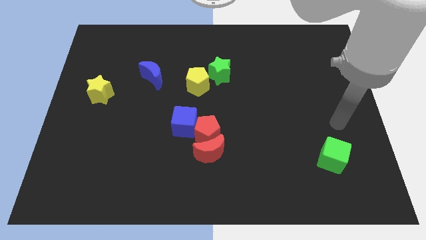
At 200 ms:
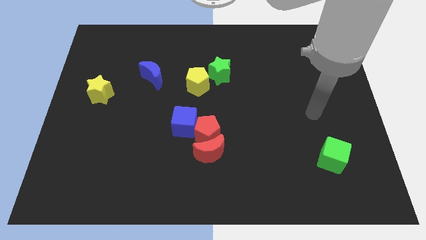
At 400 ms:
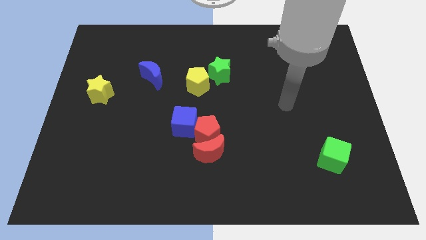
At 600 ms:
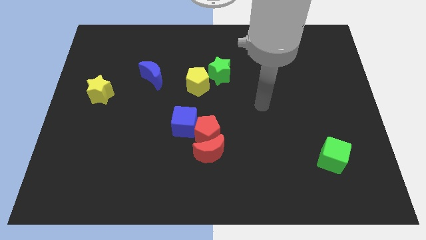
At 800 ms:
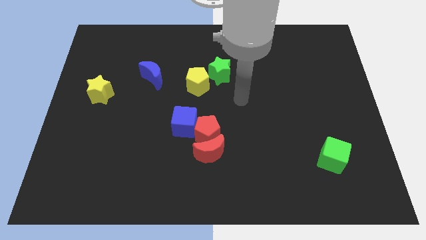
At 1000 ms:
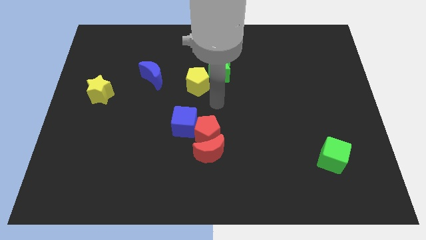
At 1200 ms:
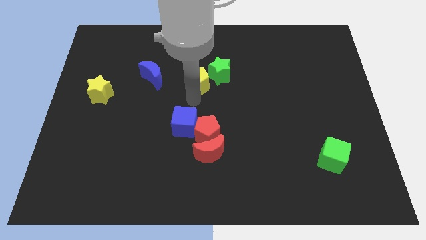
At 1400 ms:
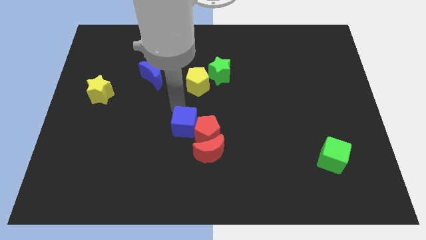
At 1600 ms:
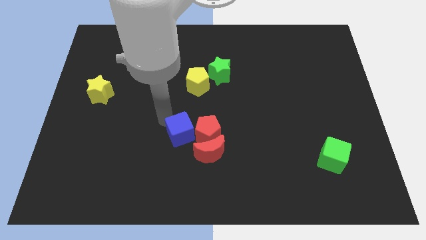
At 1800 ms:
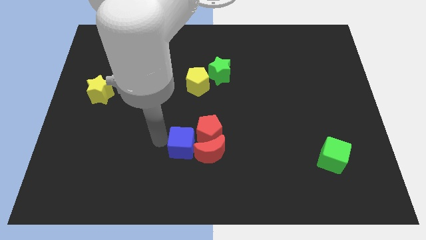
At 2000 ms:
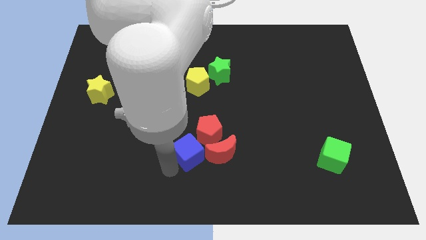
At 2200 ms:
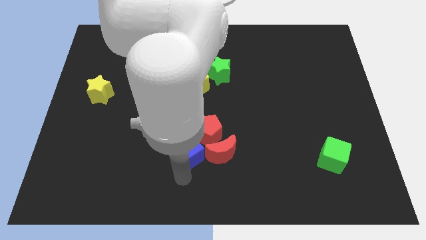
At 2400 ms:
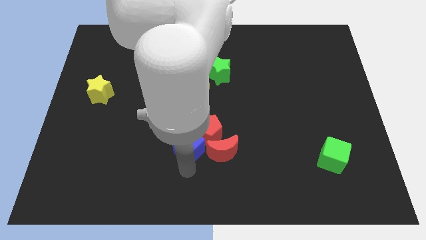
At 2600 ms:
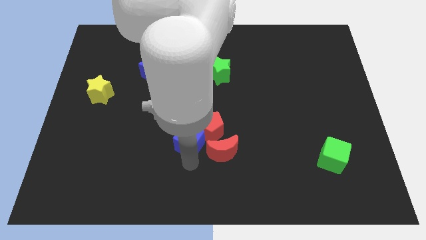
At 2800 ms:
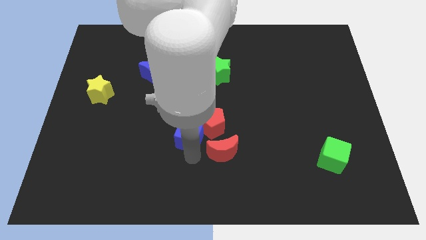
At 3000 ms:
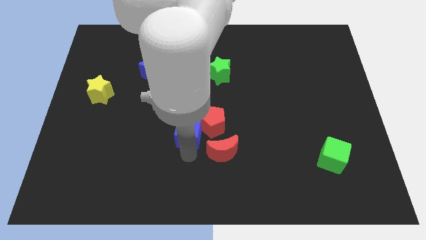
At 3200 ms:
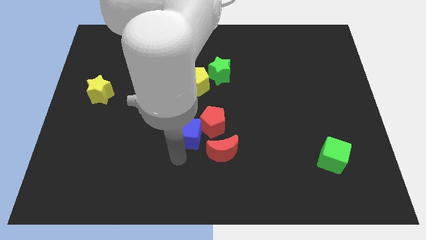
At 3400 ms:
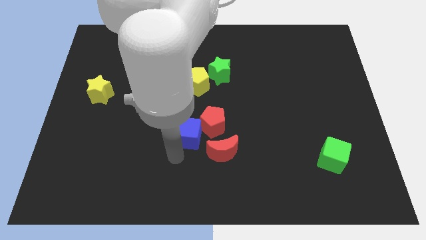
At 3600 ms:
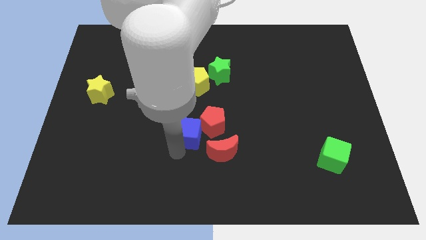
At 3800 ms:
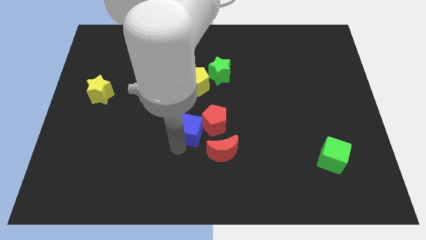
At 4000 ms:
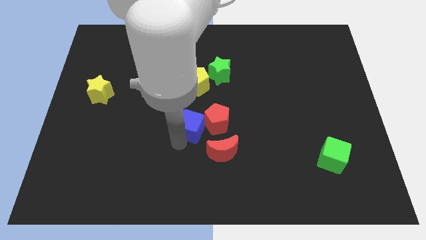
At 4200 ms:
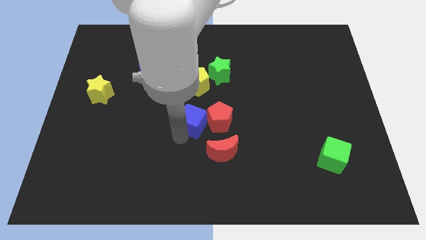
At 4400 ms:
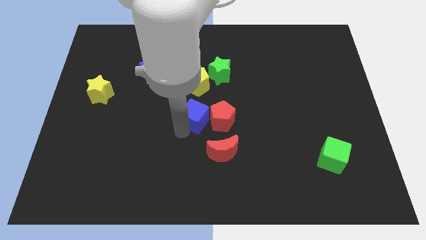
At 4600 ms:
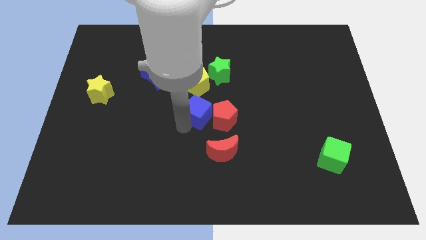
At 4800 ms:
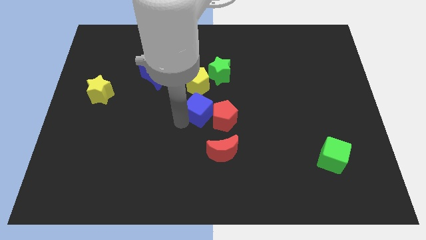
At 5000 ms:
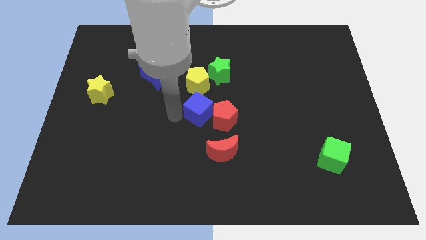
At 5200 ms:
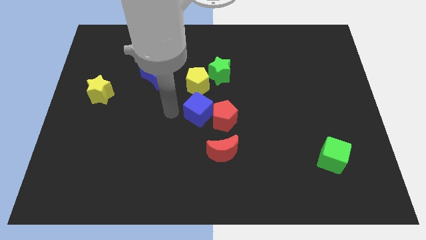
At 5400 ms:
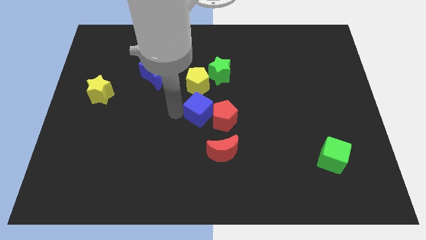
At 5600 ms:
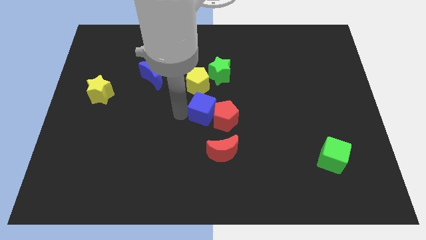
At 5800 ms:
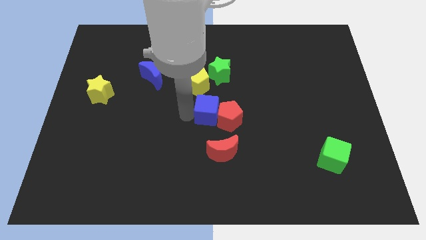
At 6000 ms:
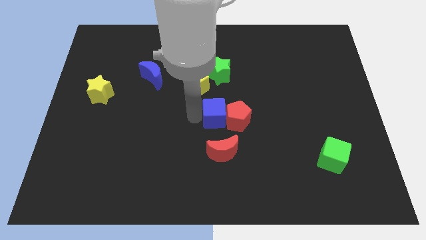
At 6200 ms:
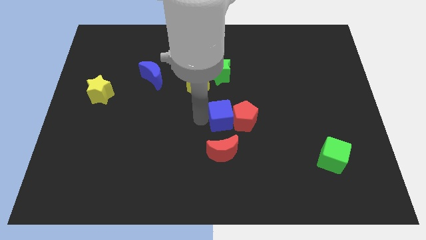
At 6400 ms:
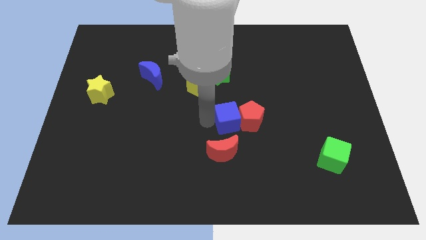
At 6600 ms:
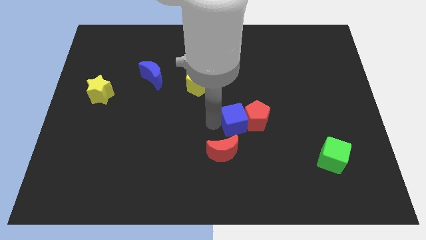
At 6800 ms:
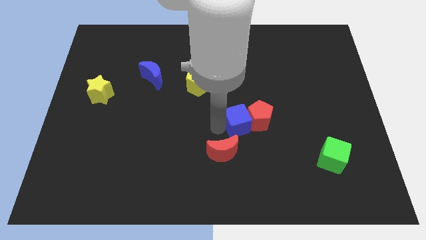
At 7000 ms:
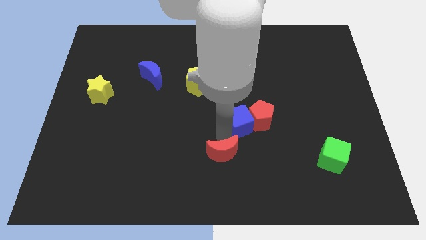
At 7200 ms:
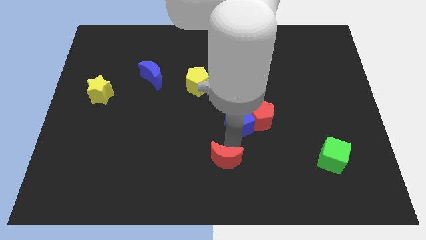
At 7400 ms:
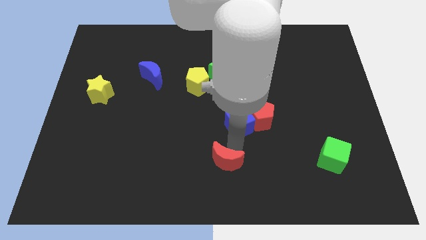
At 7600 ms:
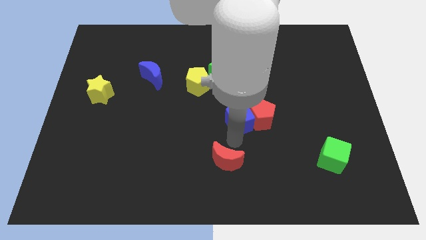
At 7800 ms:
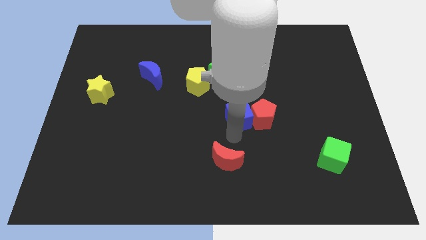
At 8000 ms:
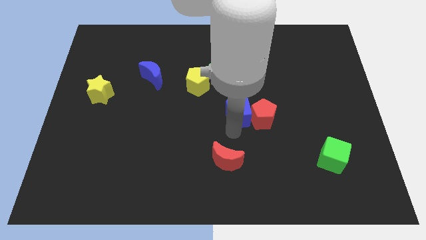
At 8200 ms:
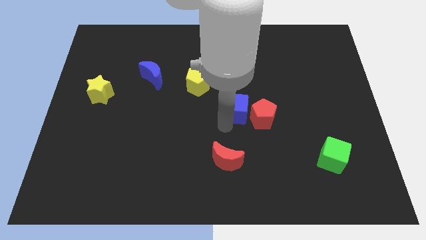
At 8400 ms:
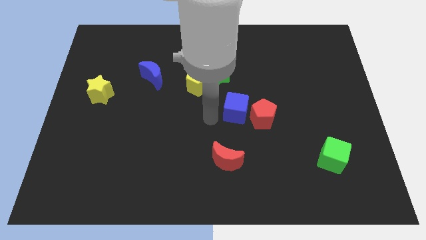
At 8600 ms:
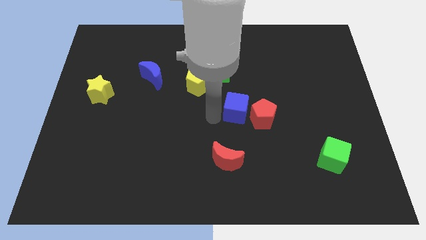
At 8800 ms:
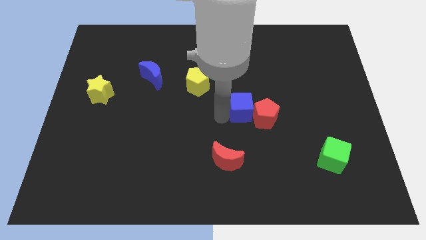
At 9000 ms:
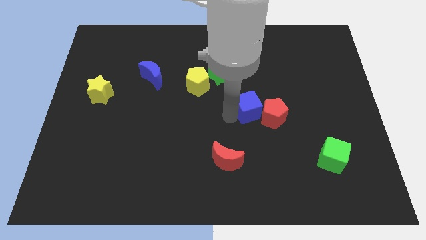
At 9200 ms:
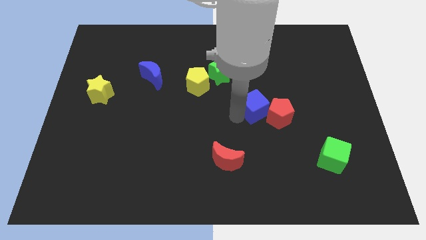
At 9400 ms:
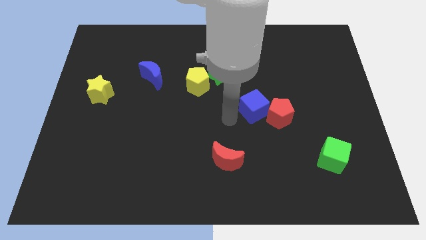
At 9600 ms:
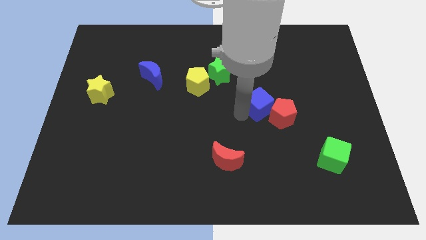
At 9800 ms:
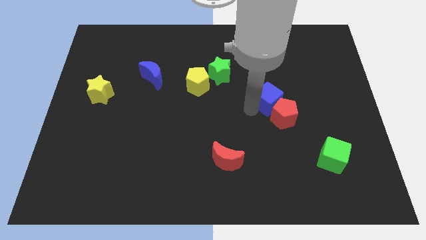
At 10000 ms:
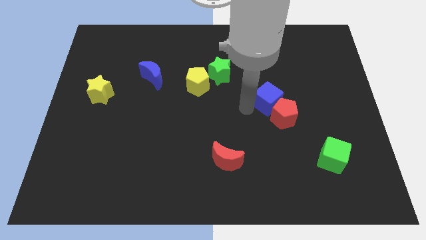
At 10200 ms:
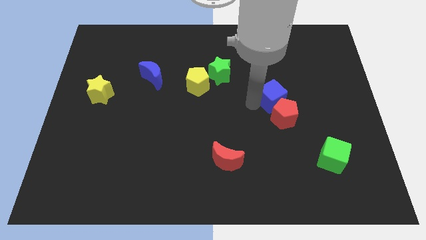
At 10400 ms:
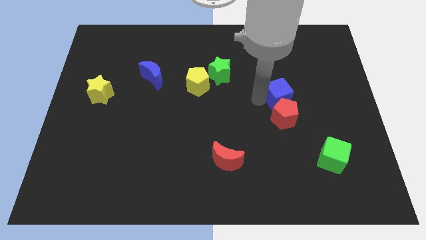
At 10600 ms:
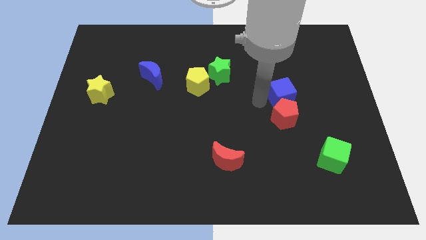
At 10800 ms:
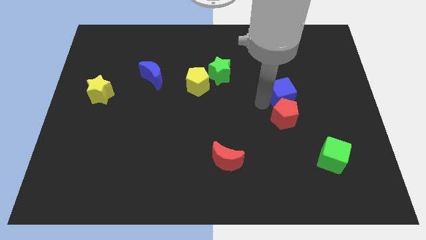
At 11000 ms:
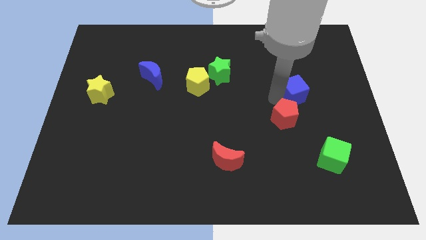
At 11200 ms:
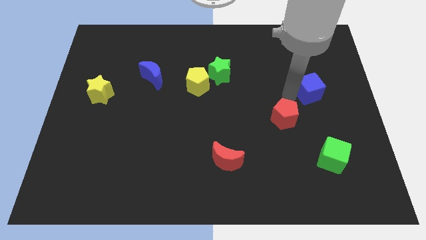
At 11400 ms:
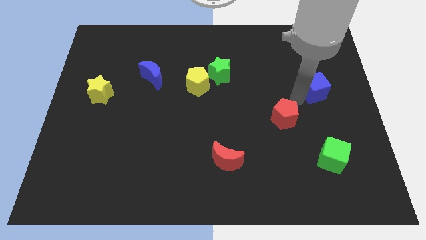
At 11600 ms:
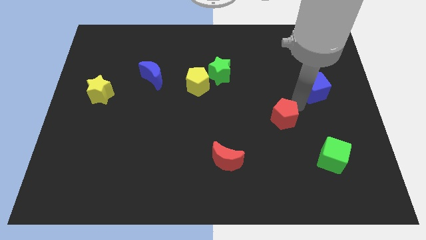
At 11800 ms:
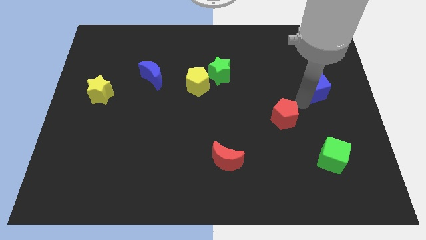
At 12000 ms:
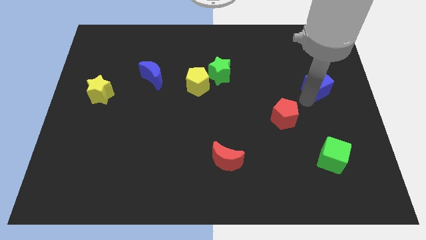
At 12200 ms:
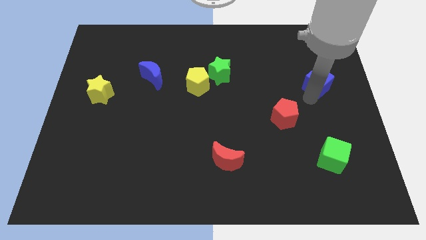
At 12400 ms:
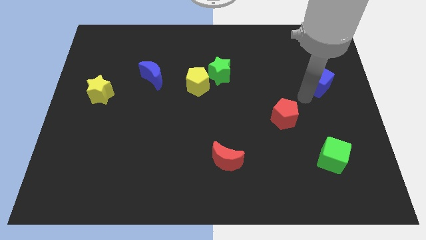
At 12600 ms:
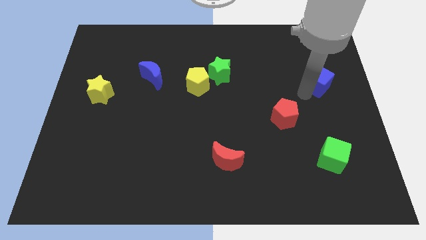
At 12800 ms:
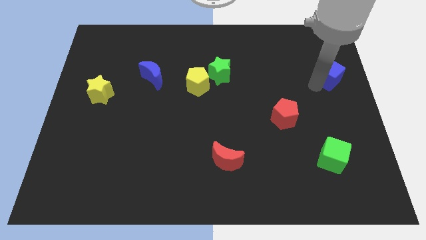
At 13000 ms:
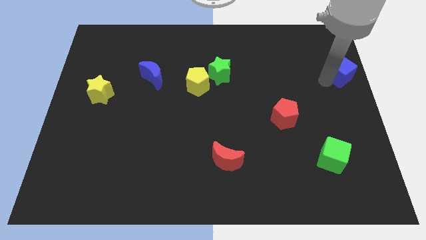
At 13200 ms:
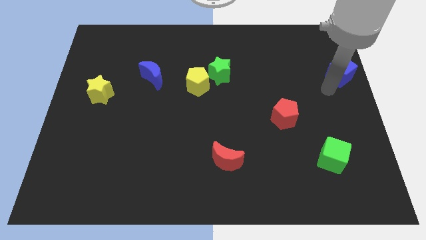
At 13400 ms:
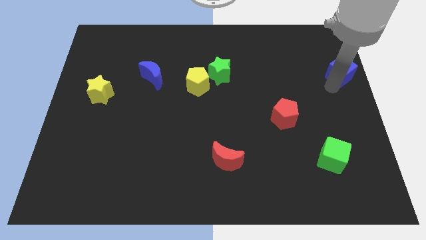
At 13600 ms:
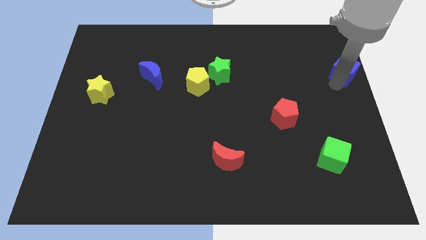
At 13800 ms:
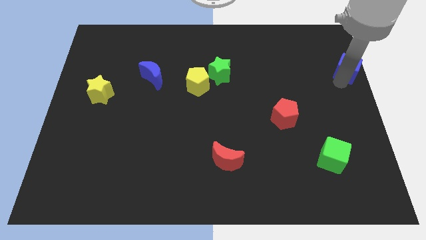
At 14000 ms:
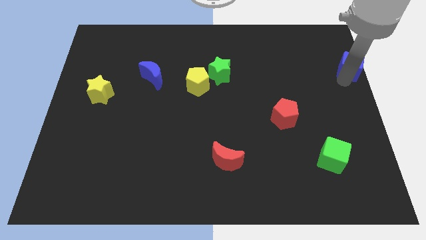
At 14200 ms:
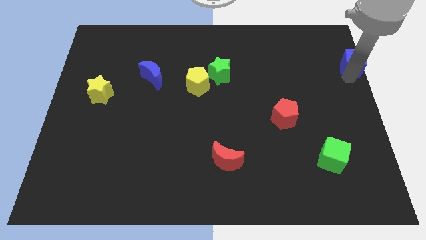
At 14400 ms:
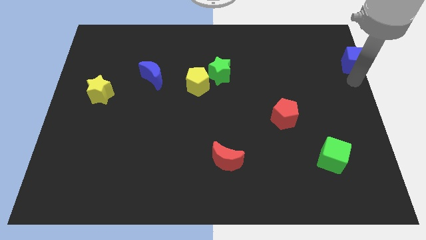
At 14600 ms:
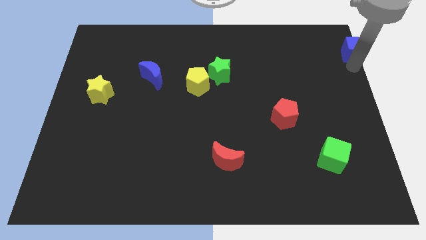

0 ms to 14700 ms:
slide the blue cube to the top right corner
